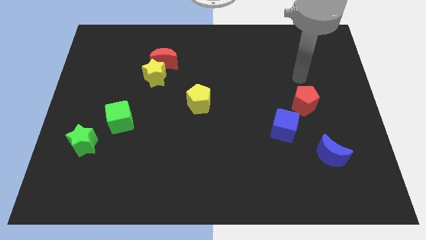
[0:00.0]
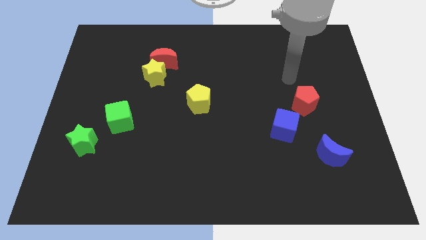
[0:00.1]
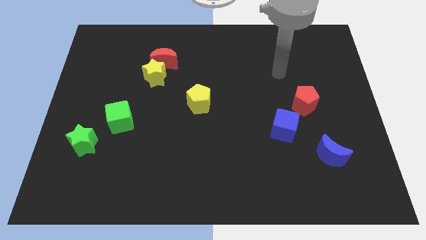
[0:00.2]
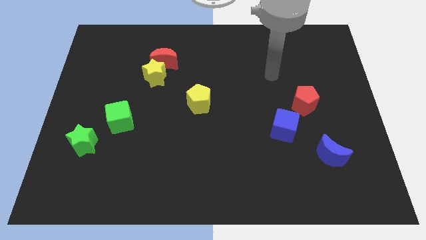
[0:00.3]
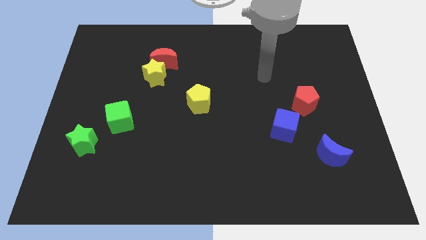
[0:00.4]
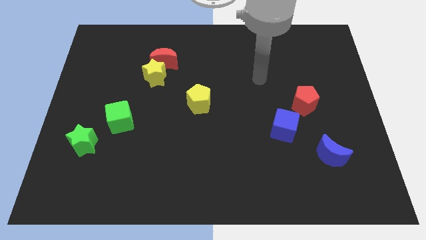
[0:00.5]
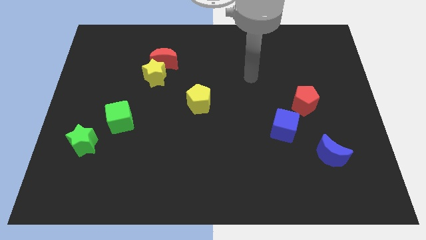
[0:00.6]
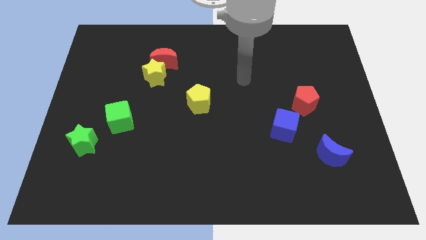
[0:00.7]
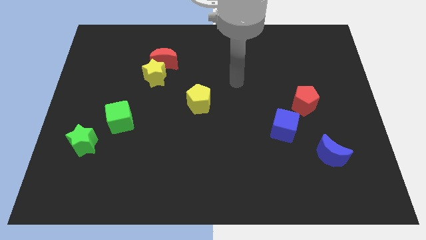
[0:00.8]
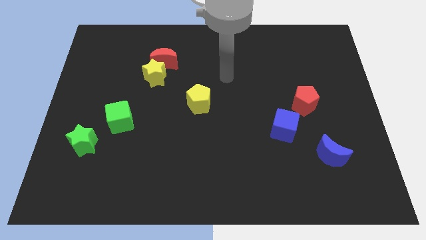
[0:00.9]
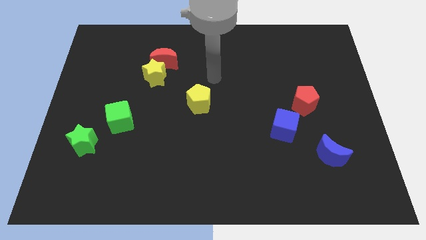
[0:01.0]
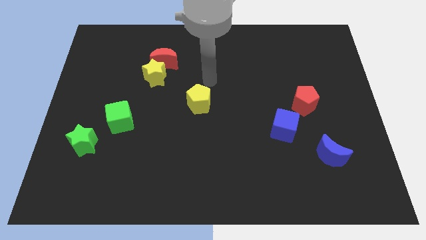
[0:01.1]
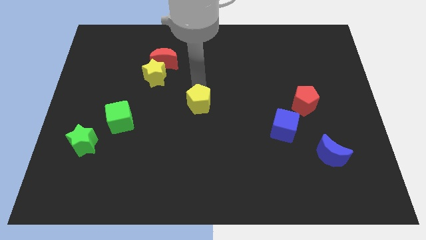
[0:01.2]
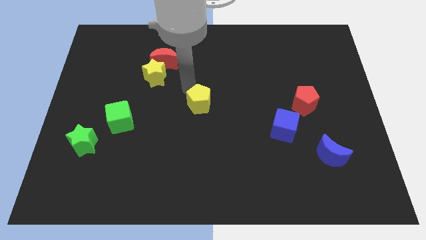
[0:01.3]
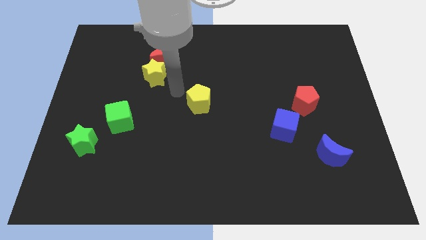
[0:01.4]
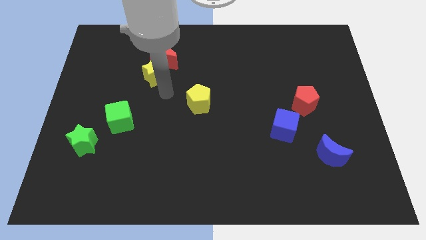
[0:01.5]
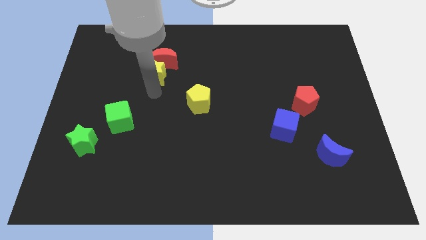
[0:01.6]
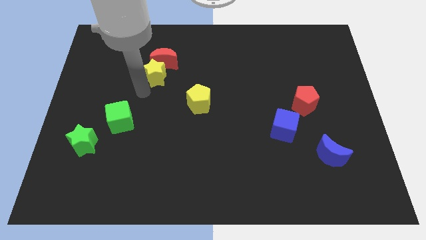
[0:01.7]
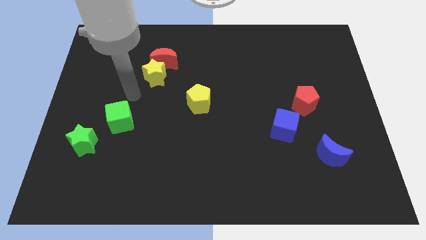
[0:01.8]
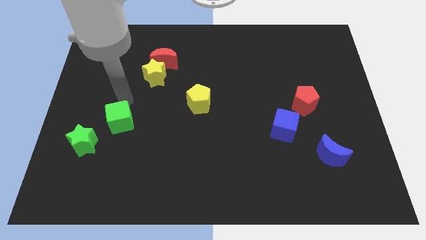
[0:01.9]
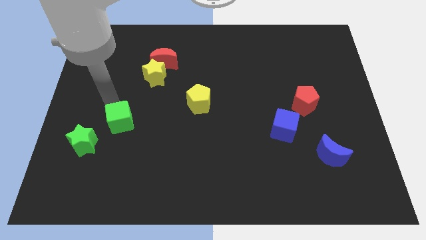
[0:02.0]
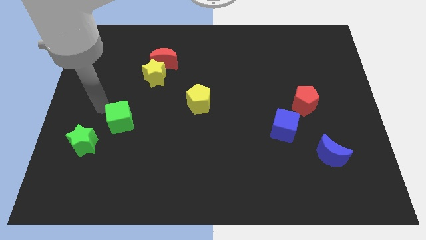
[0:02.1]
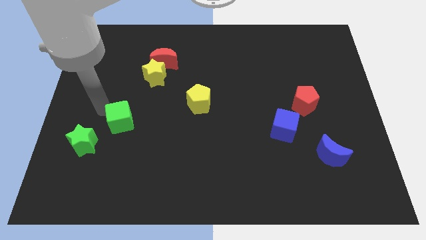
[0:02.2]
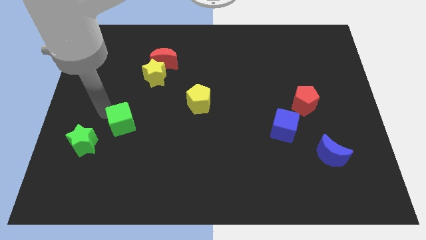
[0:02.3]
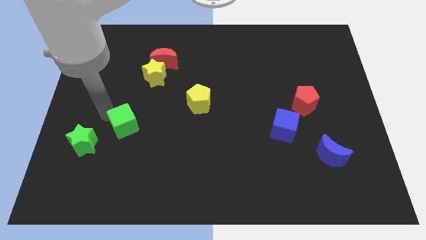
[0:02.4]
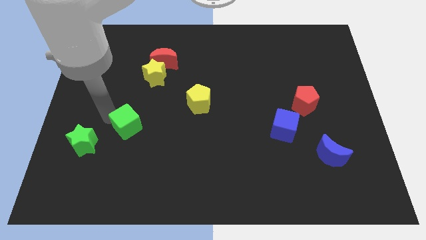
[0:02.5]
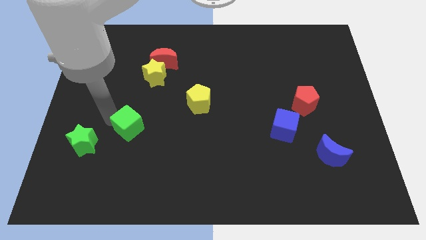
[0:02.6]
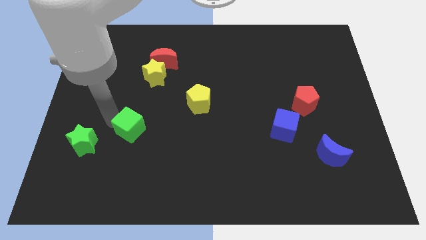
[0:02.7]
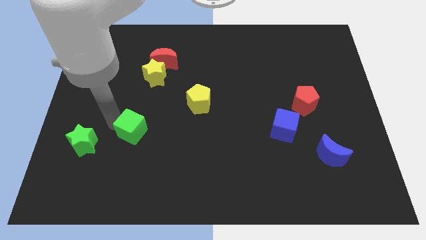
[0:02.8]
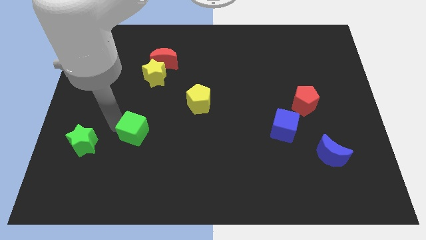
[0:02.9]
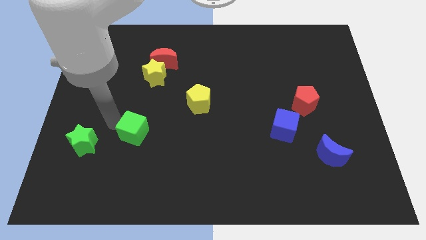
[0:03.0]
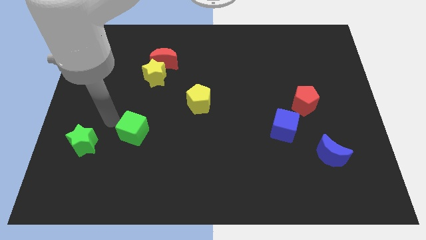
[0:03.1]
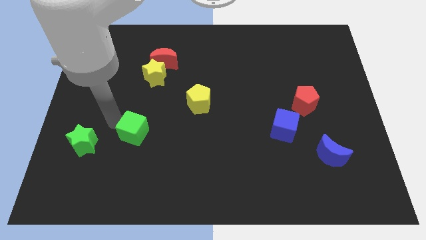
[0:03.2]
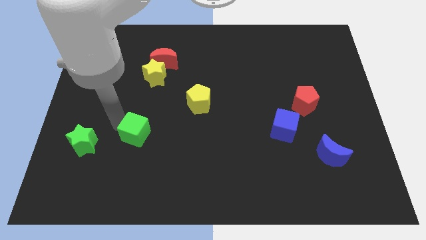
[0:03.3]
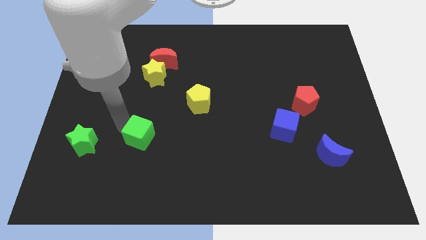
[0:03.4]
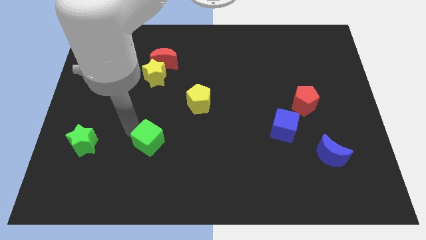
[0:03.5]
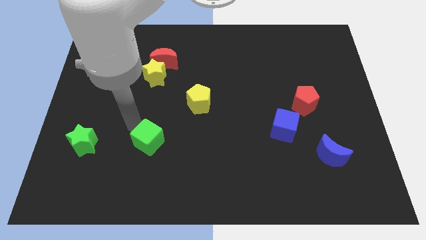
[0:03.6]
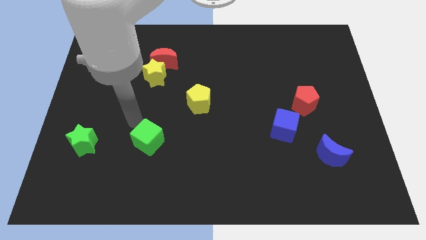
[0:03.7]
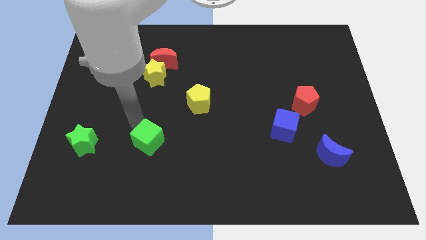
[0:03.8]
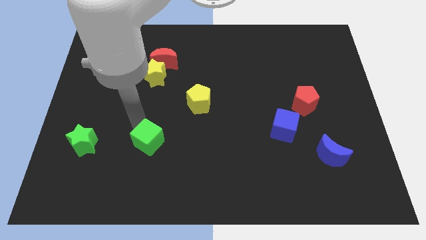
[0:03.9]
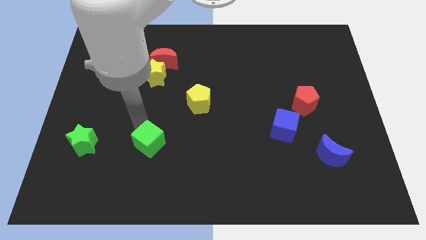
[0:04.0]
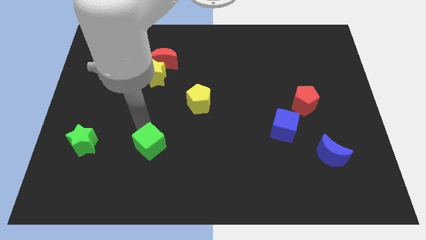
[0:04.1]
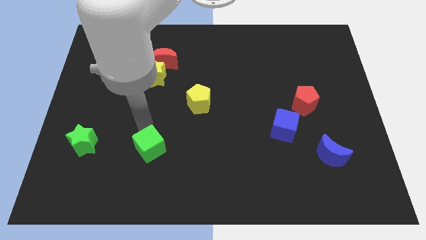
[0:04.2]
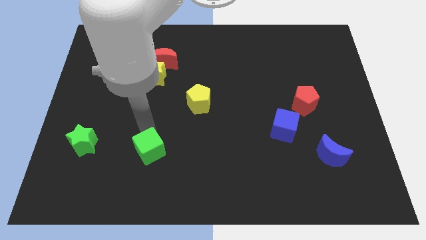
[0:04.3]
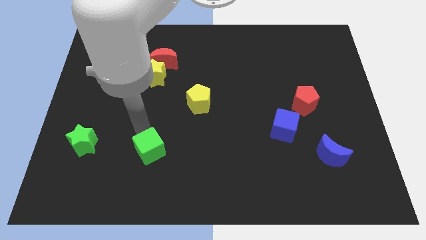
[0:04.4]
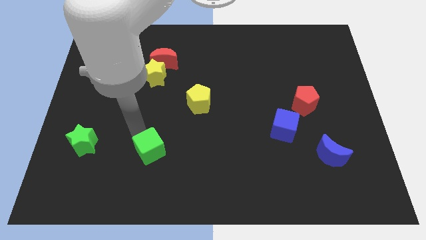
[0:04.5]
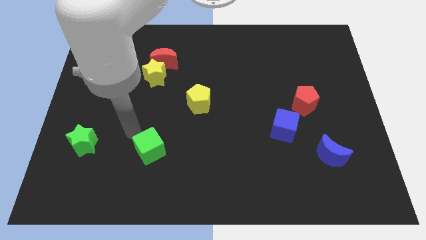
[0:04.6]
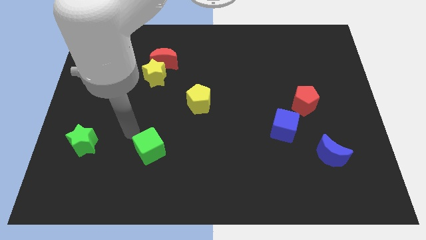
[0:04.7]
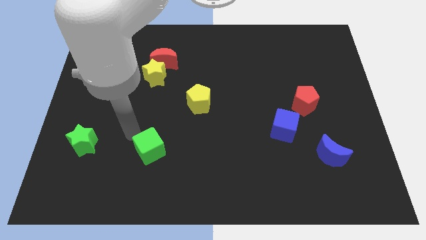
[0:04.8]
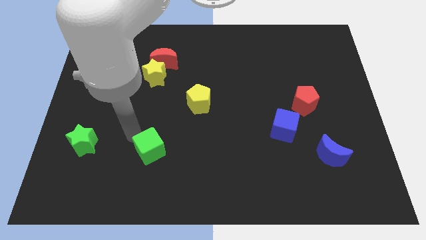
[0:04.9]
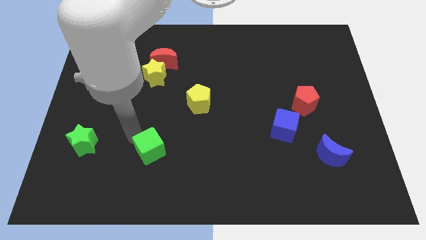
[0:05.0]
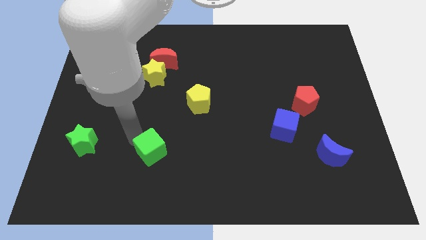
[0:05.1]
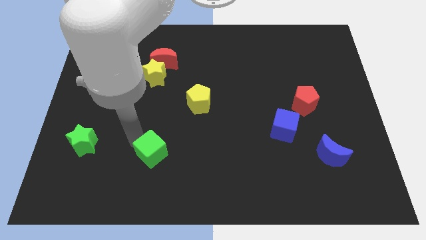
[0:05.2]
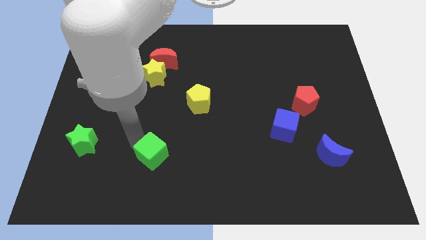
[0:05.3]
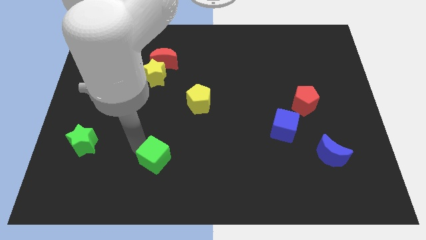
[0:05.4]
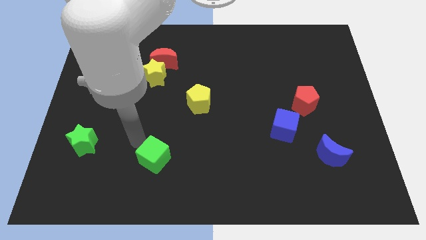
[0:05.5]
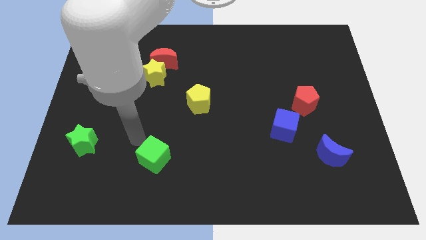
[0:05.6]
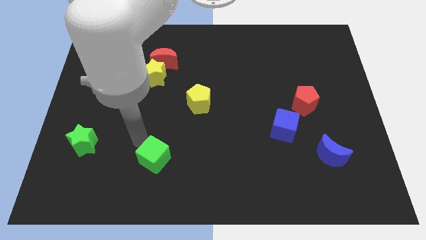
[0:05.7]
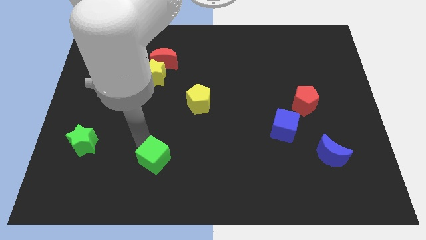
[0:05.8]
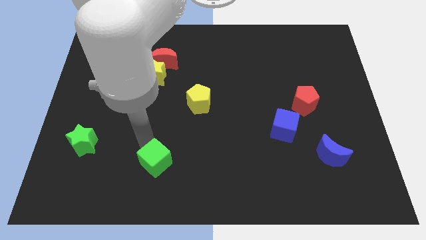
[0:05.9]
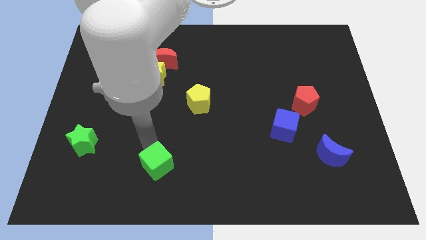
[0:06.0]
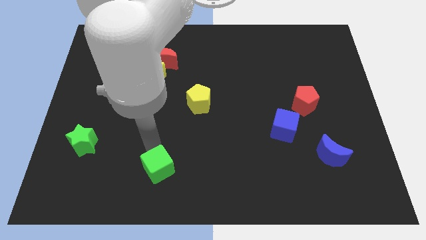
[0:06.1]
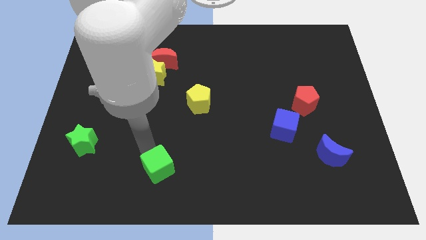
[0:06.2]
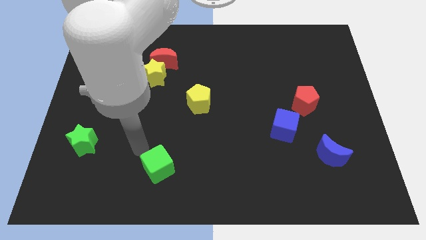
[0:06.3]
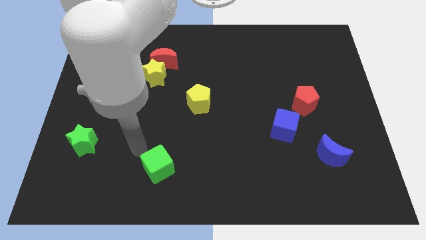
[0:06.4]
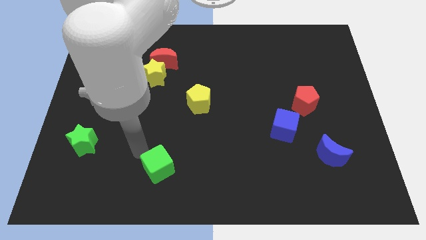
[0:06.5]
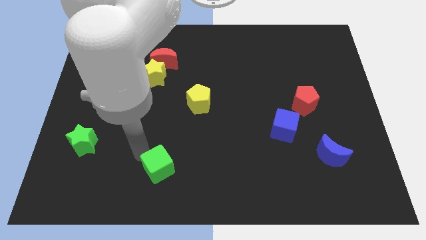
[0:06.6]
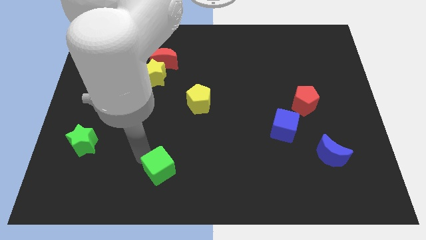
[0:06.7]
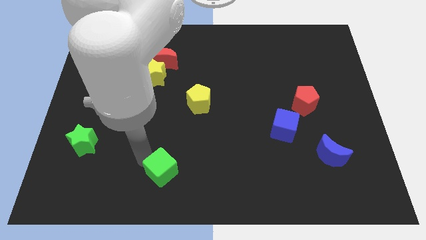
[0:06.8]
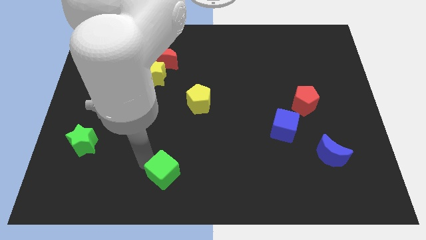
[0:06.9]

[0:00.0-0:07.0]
push the green cube to the bottom
